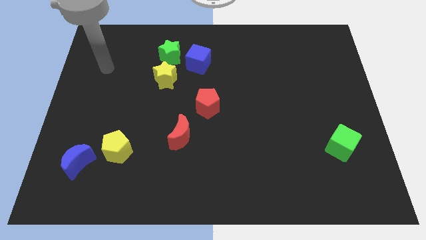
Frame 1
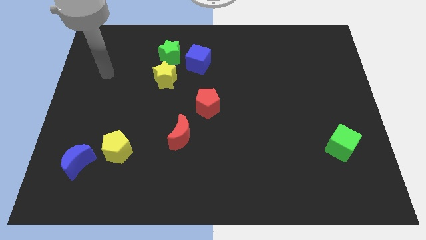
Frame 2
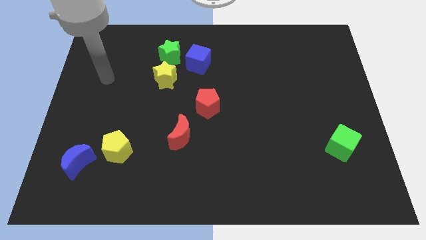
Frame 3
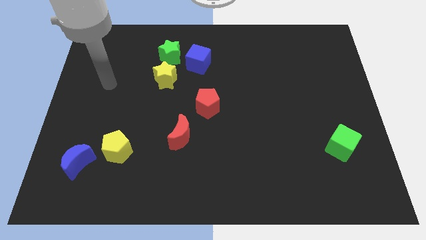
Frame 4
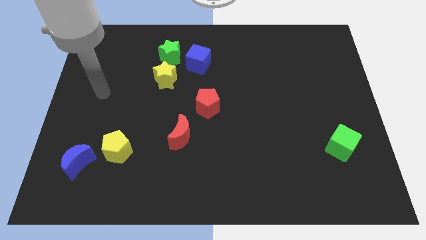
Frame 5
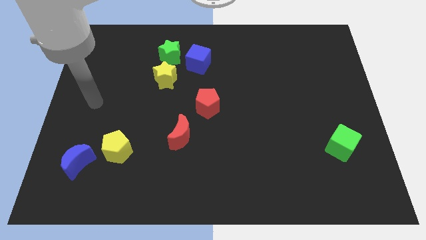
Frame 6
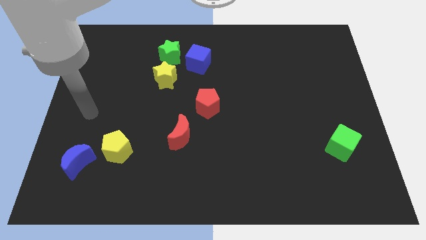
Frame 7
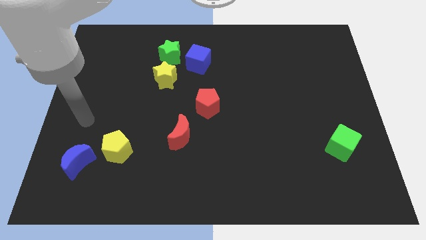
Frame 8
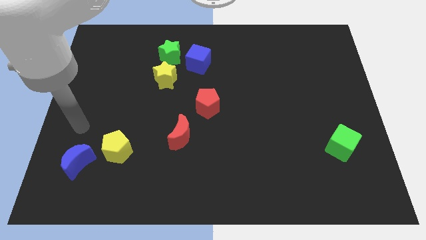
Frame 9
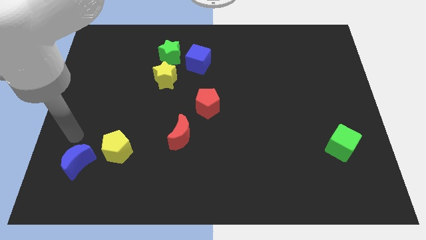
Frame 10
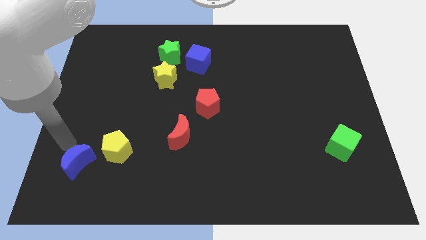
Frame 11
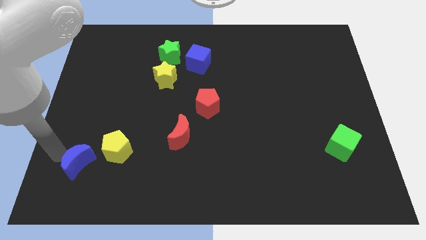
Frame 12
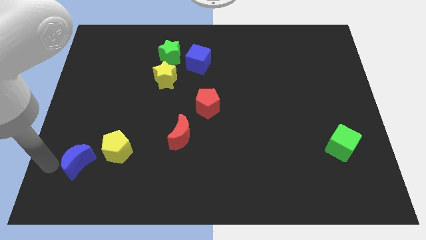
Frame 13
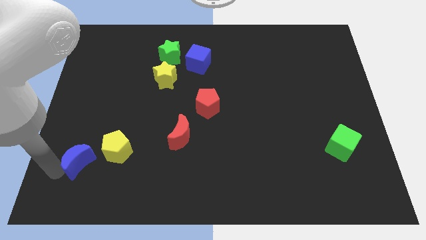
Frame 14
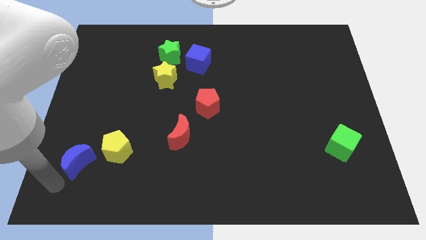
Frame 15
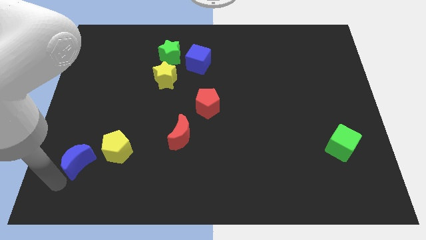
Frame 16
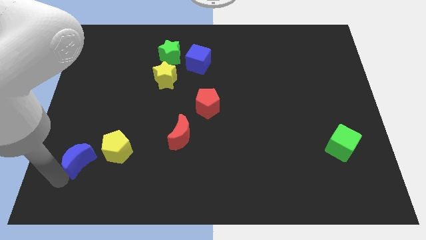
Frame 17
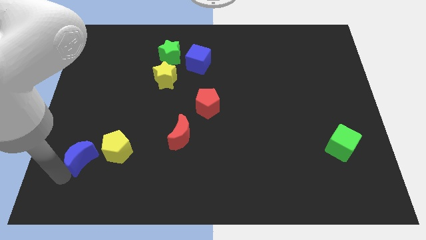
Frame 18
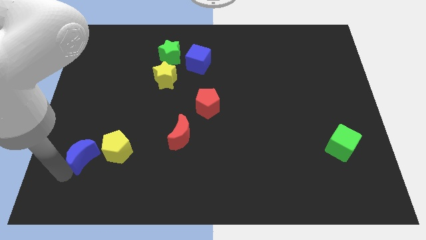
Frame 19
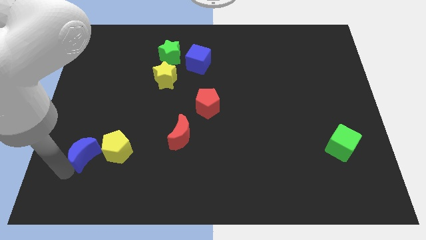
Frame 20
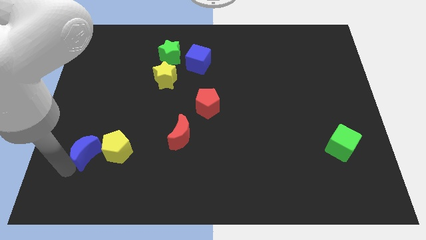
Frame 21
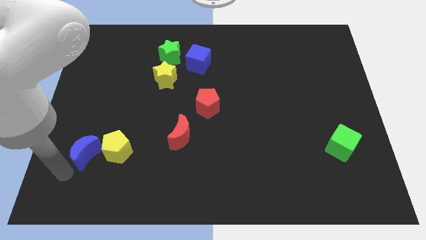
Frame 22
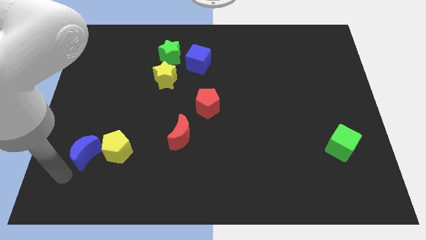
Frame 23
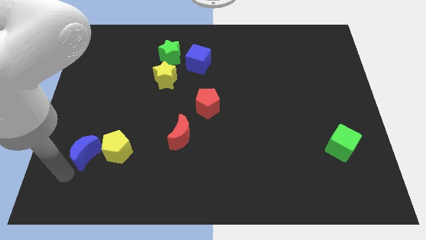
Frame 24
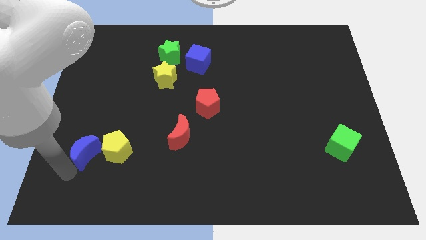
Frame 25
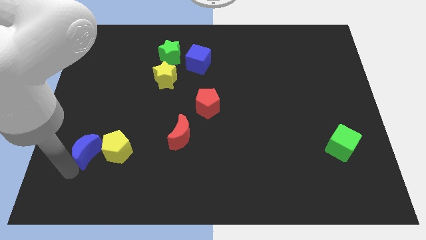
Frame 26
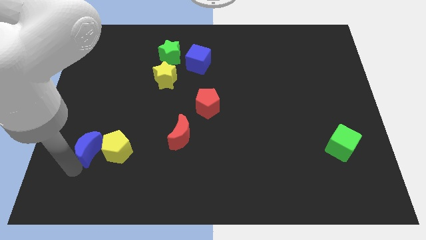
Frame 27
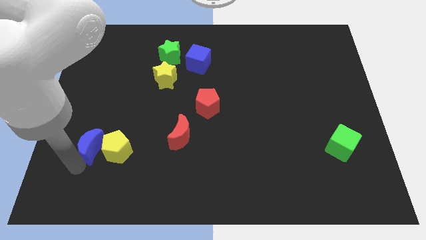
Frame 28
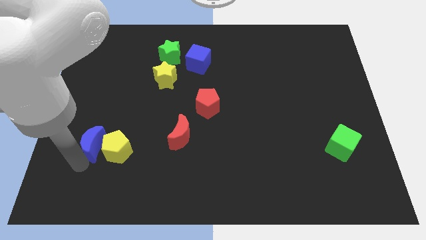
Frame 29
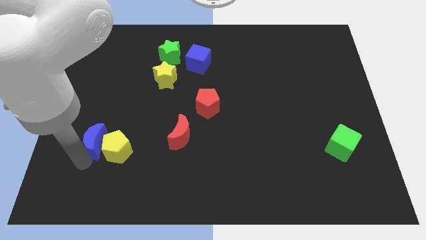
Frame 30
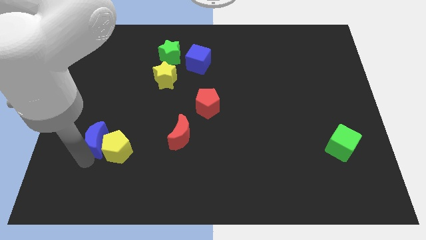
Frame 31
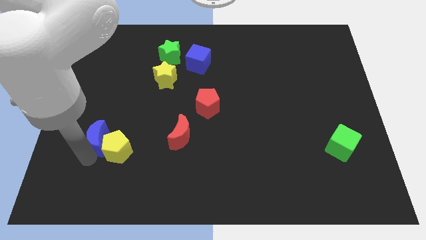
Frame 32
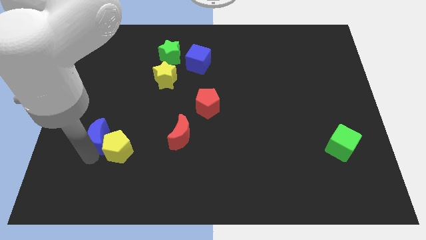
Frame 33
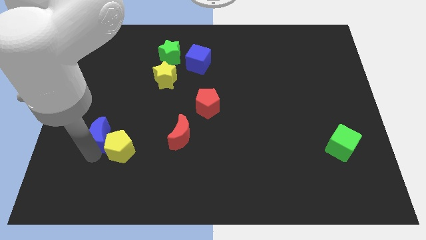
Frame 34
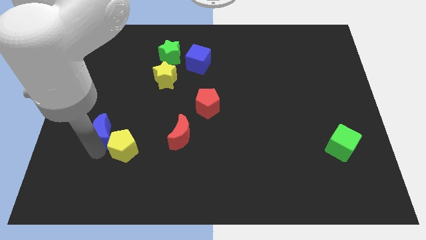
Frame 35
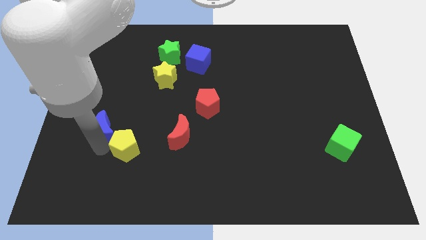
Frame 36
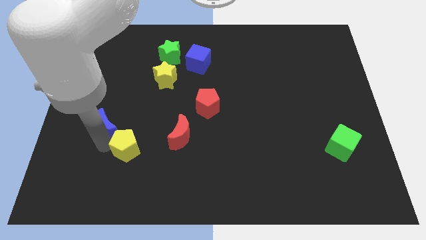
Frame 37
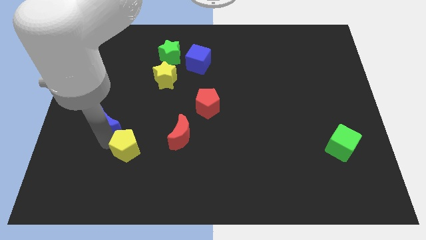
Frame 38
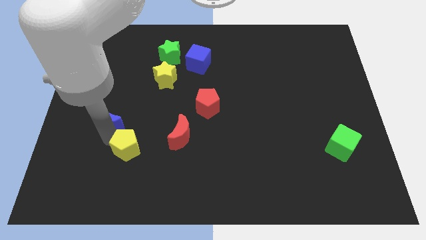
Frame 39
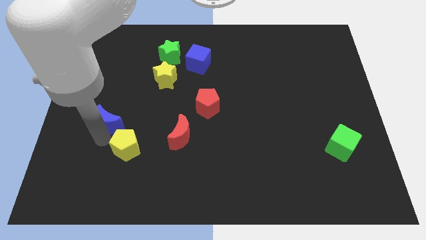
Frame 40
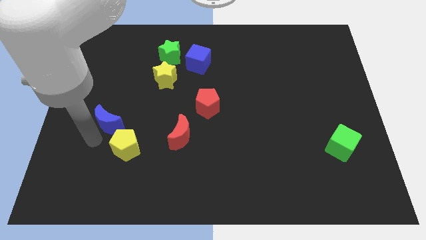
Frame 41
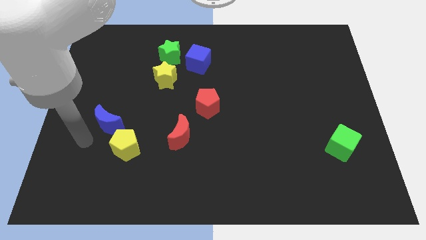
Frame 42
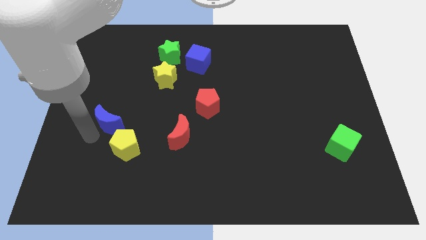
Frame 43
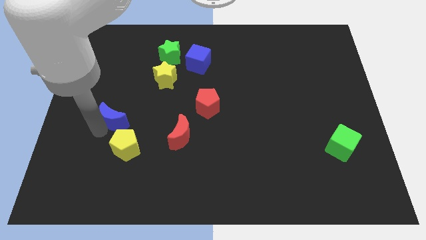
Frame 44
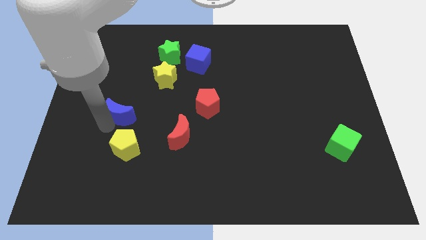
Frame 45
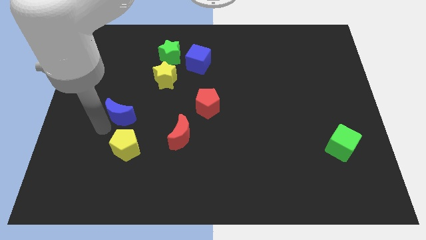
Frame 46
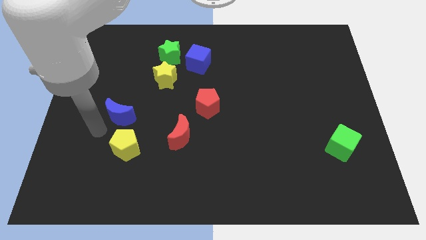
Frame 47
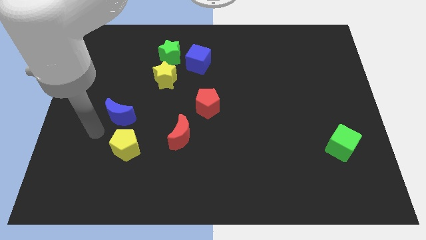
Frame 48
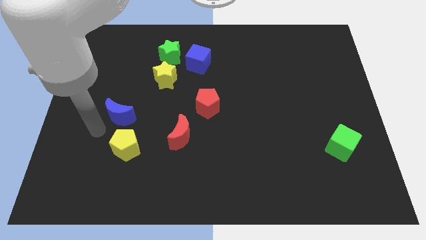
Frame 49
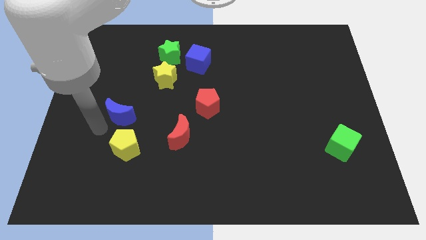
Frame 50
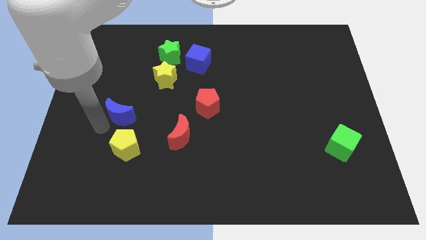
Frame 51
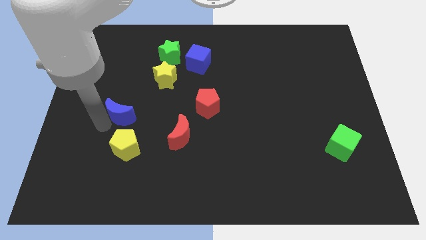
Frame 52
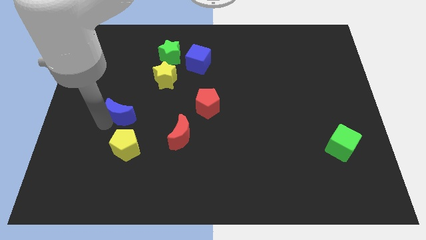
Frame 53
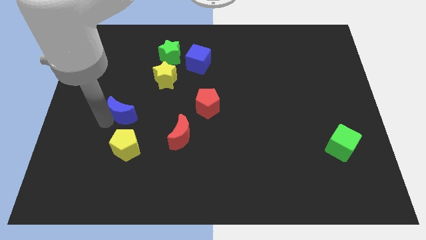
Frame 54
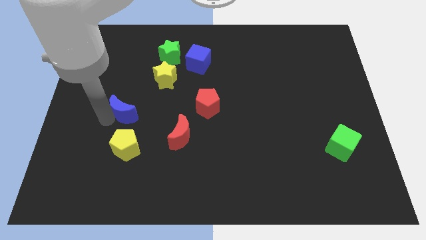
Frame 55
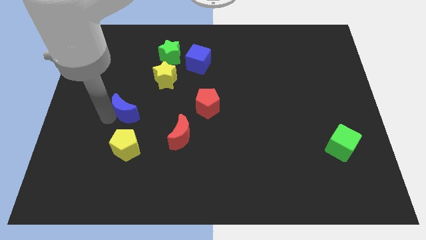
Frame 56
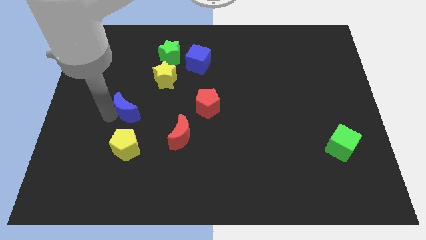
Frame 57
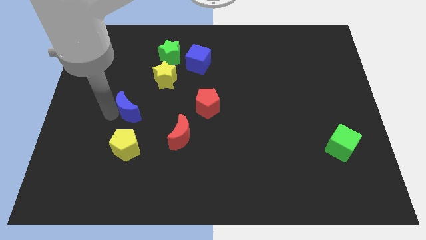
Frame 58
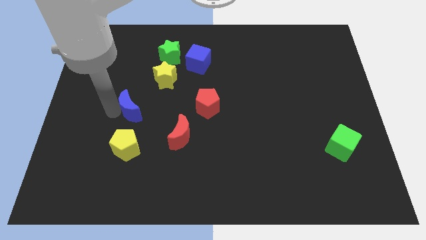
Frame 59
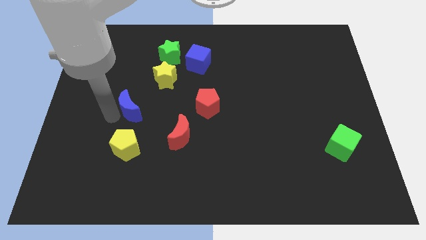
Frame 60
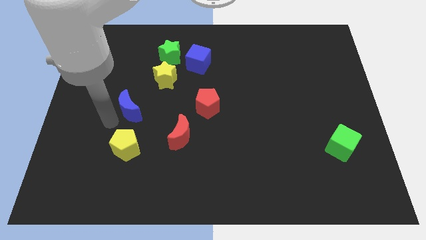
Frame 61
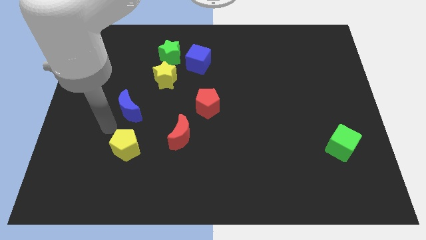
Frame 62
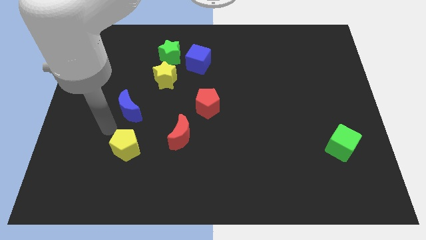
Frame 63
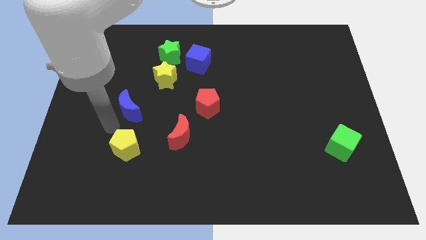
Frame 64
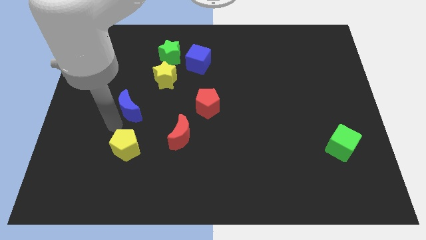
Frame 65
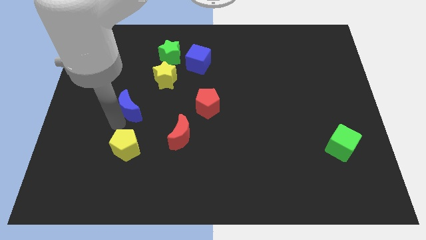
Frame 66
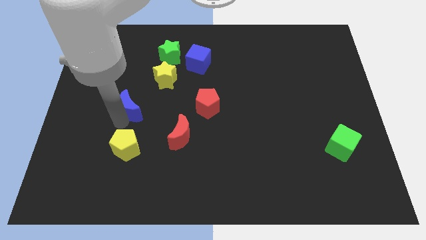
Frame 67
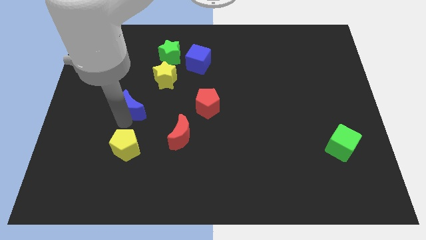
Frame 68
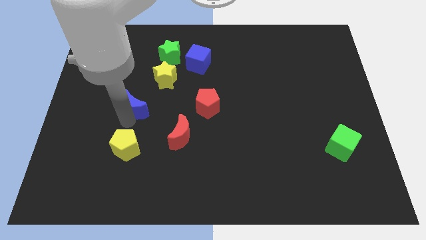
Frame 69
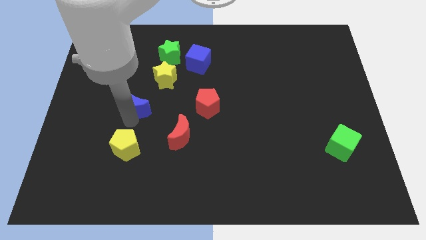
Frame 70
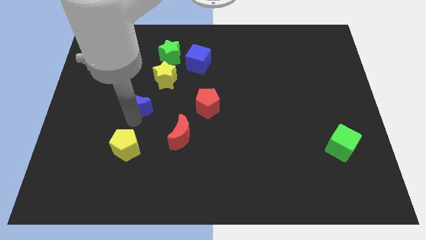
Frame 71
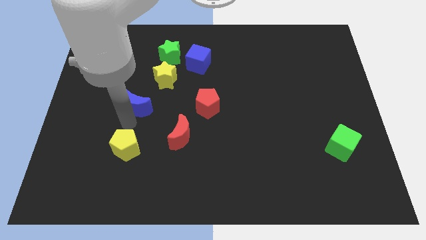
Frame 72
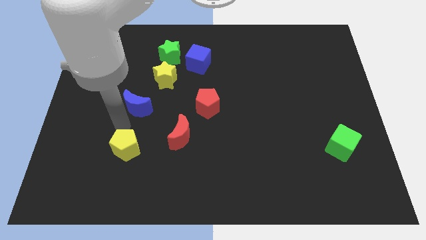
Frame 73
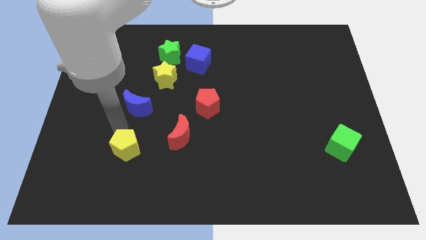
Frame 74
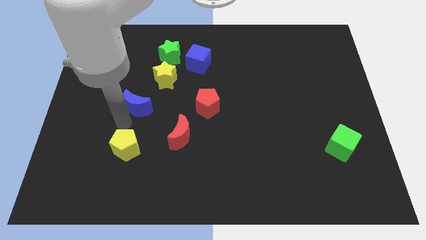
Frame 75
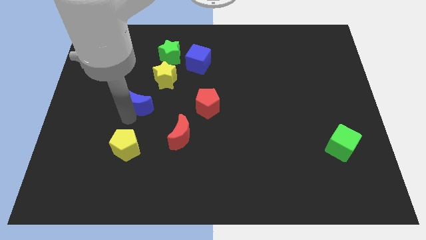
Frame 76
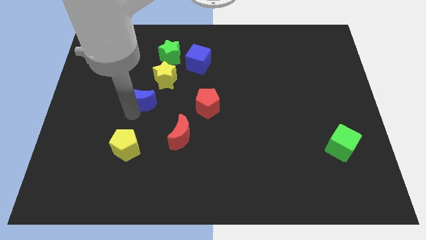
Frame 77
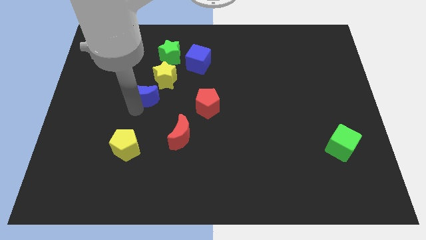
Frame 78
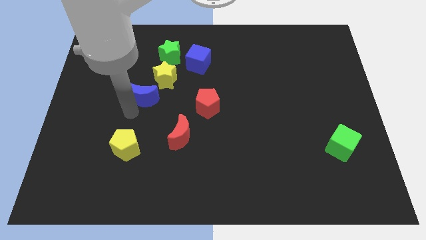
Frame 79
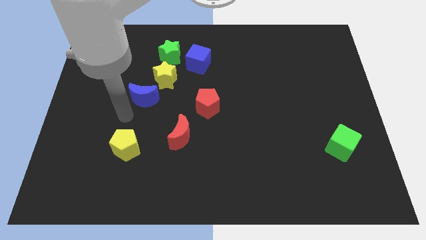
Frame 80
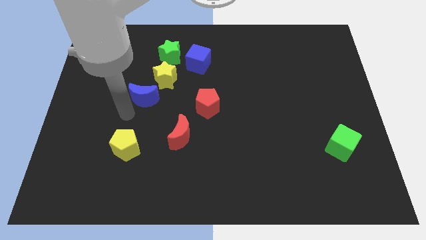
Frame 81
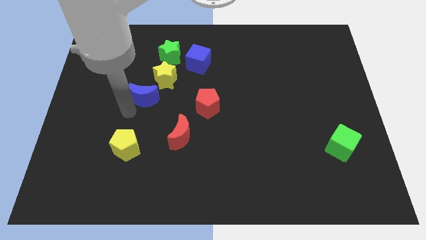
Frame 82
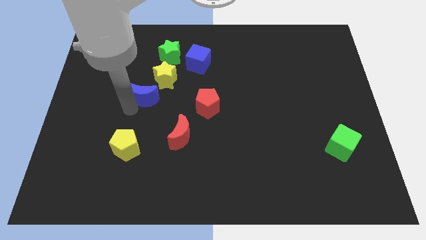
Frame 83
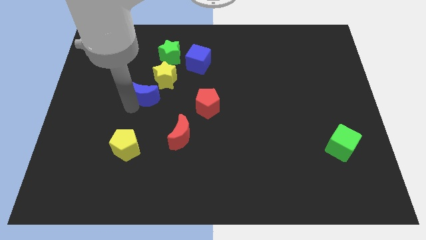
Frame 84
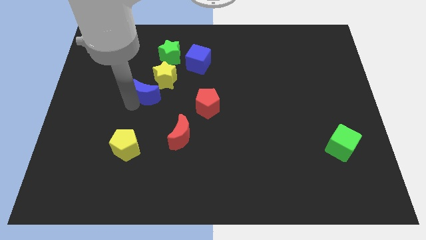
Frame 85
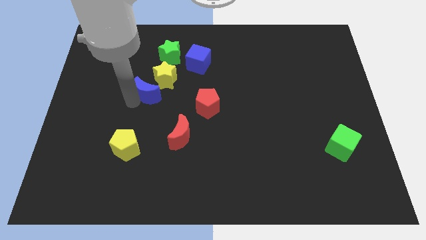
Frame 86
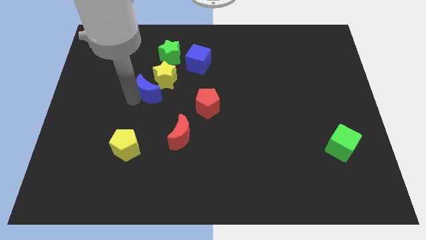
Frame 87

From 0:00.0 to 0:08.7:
move the blue moon towards the yellow star
